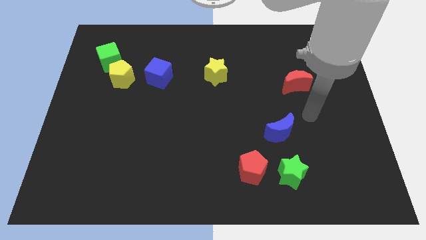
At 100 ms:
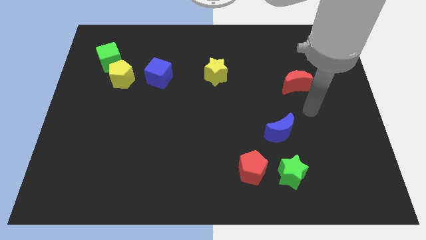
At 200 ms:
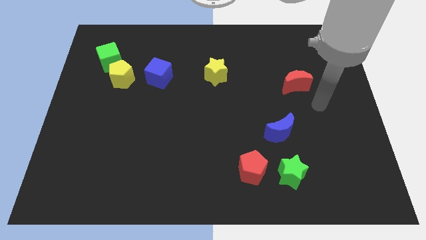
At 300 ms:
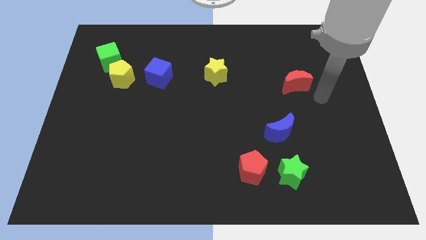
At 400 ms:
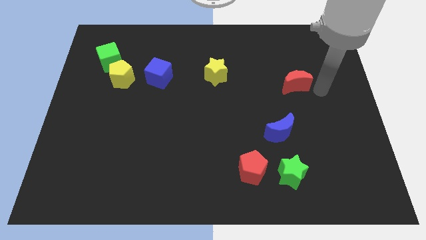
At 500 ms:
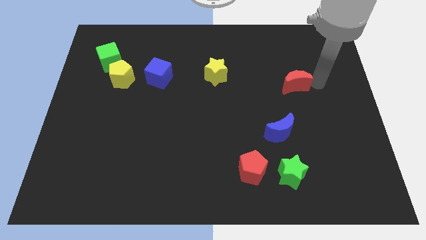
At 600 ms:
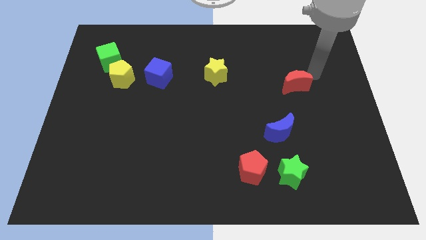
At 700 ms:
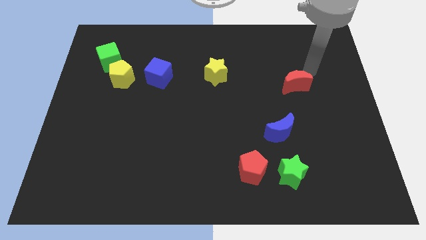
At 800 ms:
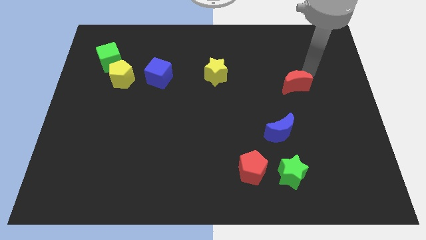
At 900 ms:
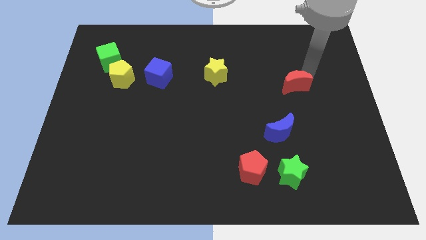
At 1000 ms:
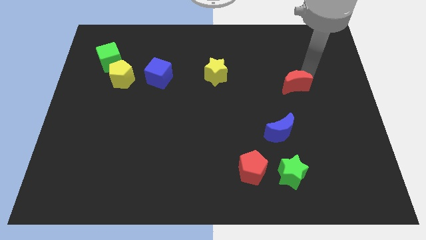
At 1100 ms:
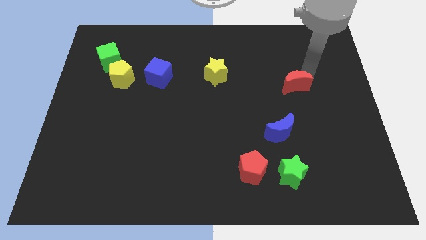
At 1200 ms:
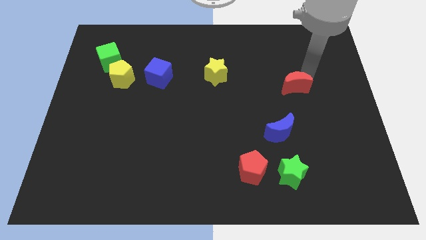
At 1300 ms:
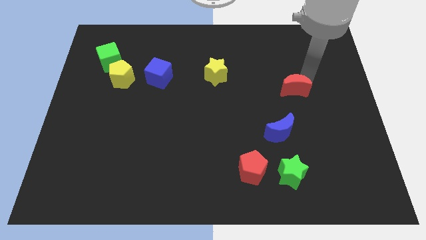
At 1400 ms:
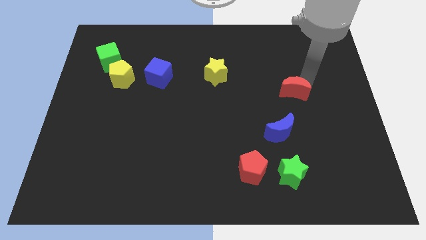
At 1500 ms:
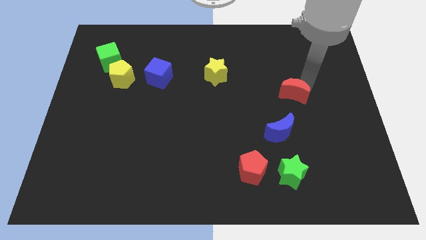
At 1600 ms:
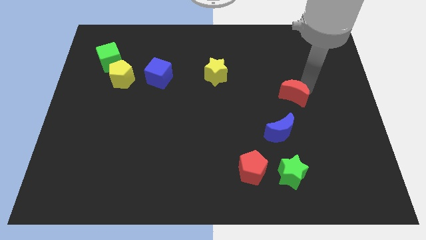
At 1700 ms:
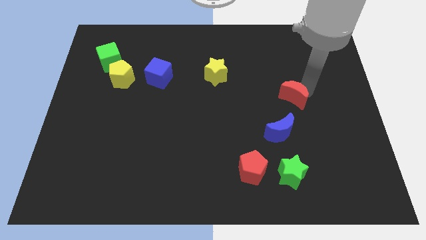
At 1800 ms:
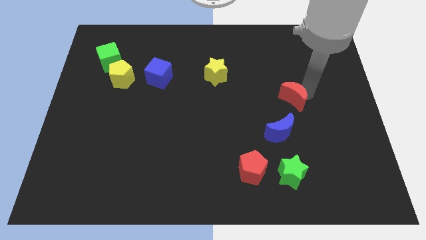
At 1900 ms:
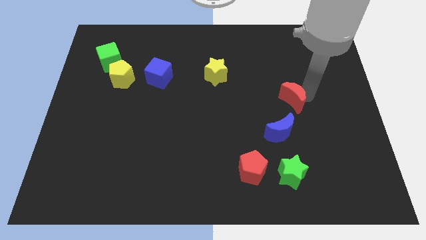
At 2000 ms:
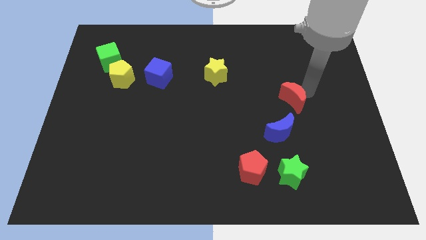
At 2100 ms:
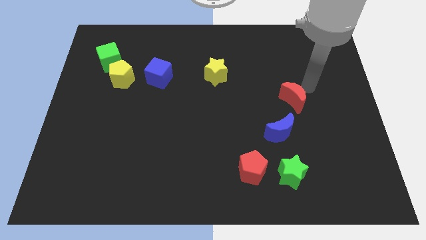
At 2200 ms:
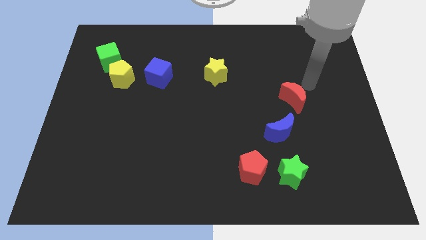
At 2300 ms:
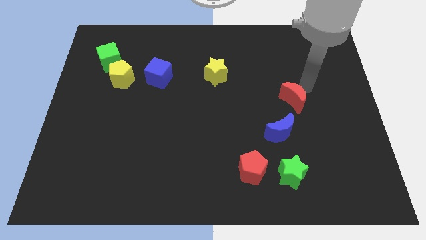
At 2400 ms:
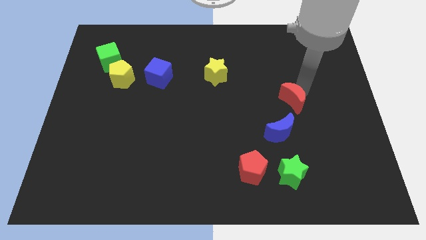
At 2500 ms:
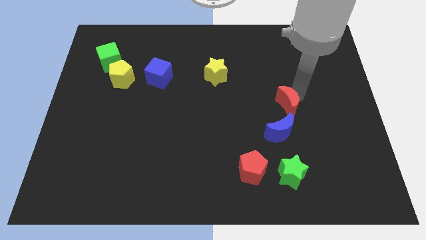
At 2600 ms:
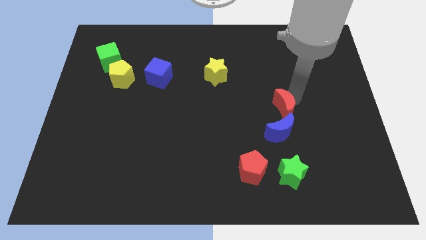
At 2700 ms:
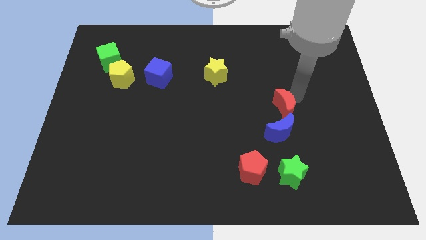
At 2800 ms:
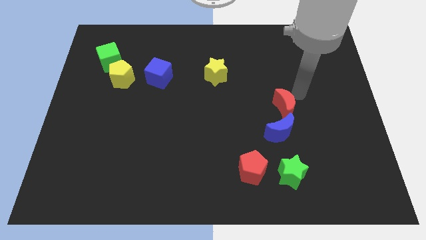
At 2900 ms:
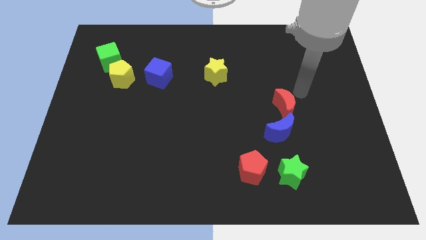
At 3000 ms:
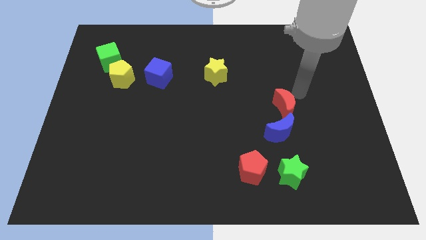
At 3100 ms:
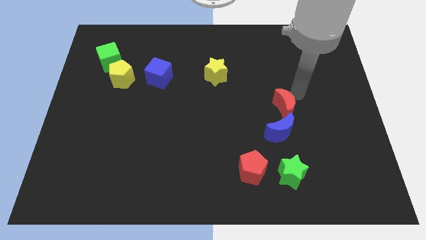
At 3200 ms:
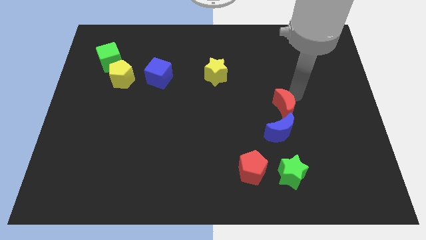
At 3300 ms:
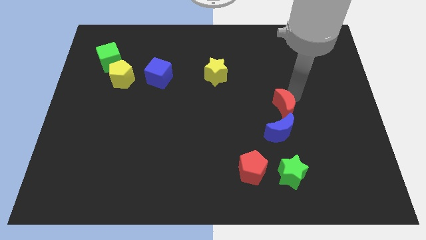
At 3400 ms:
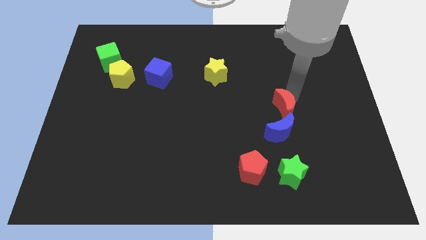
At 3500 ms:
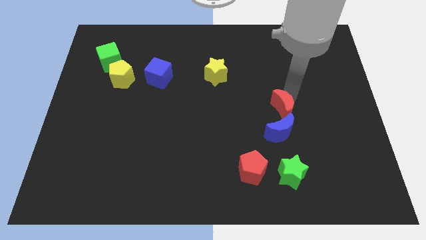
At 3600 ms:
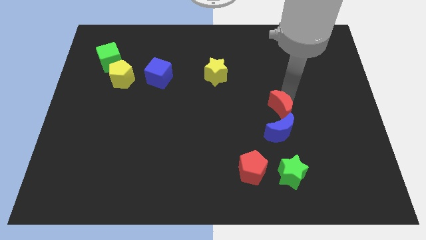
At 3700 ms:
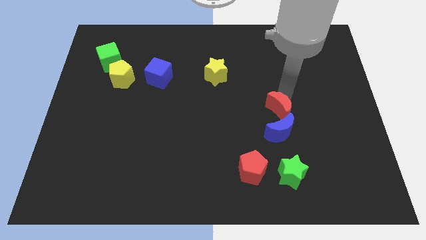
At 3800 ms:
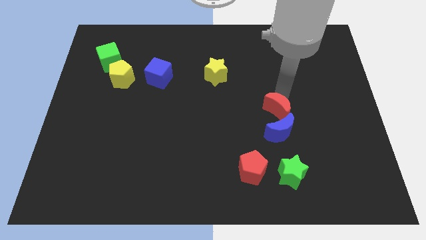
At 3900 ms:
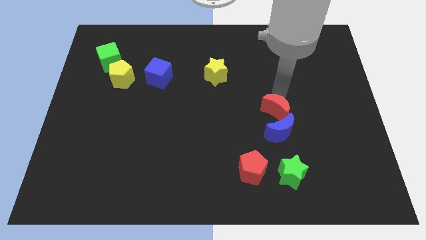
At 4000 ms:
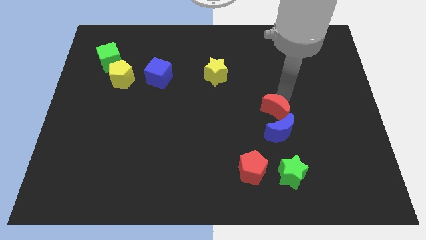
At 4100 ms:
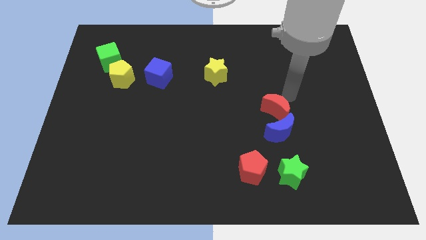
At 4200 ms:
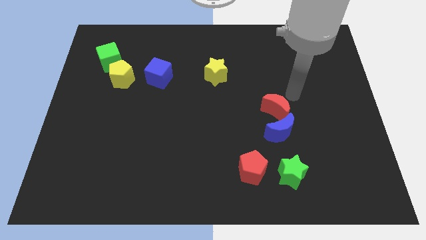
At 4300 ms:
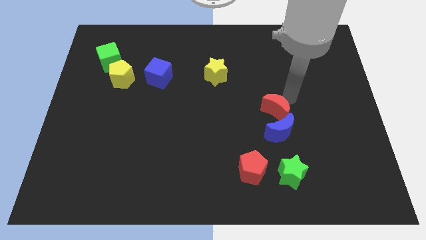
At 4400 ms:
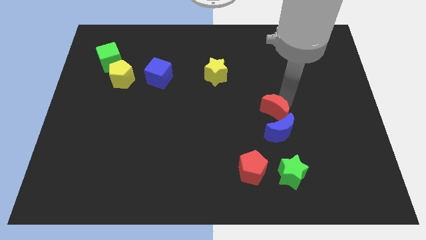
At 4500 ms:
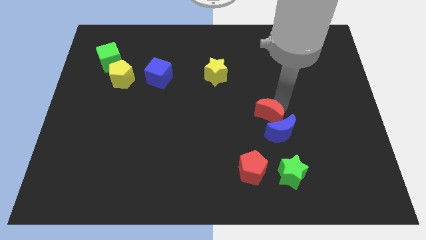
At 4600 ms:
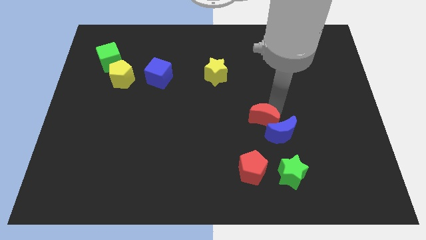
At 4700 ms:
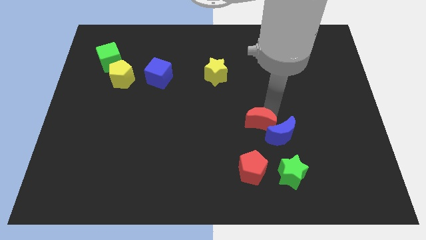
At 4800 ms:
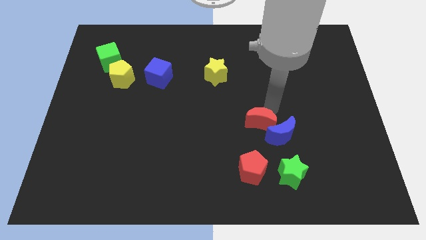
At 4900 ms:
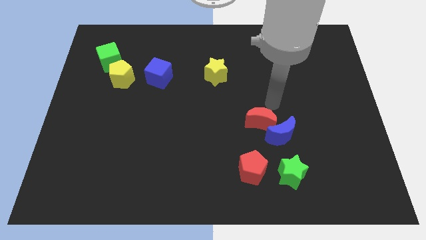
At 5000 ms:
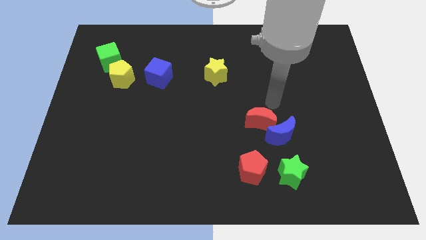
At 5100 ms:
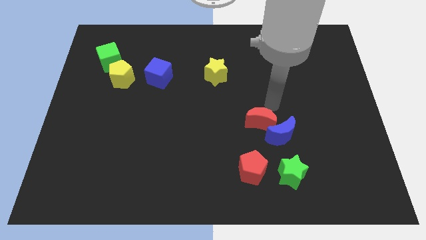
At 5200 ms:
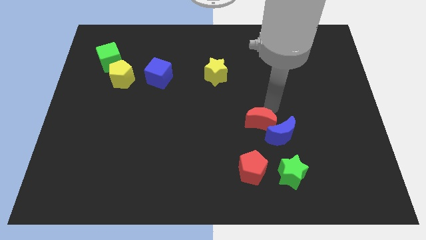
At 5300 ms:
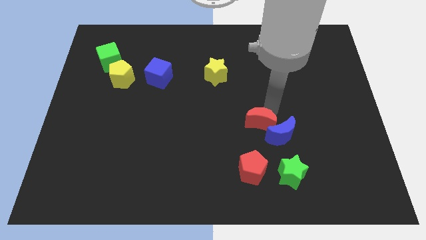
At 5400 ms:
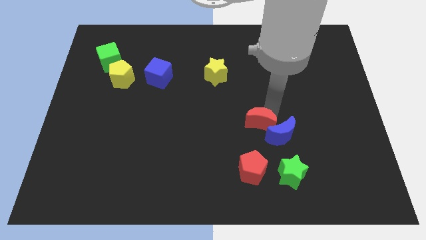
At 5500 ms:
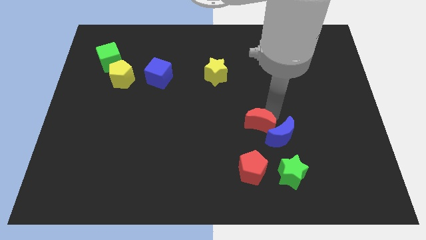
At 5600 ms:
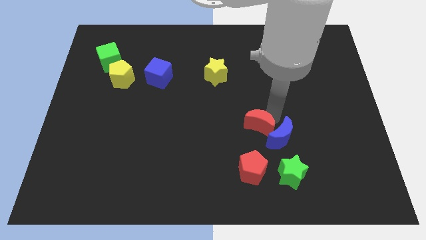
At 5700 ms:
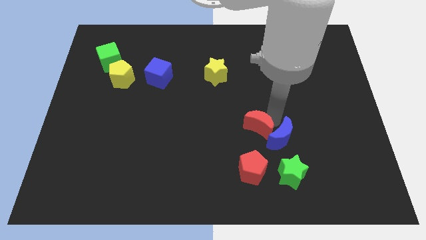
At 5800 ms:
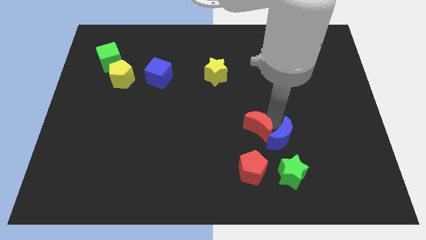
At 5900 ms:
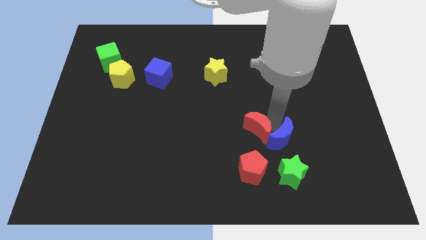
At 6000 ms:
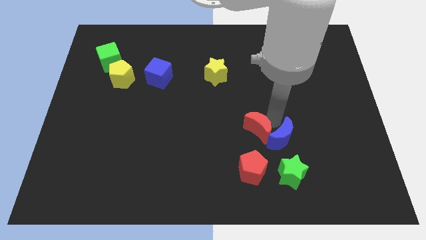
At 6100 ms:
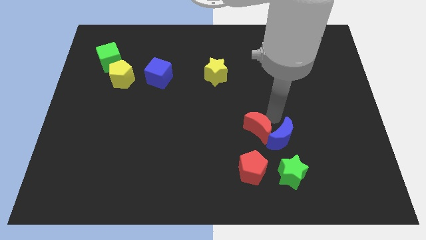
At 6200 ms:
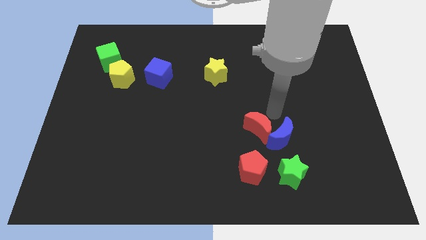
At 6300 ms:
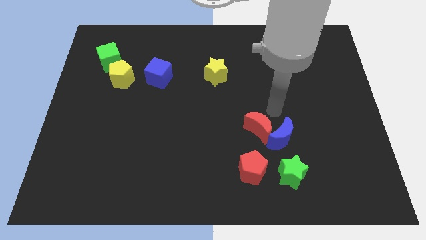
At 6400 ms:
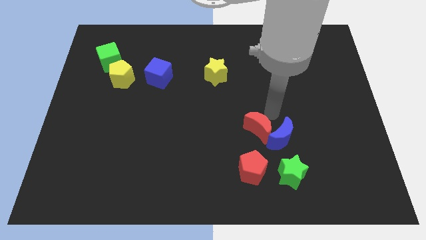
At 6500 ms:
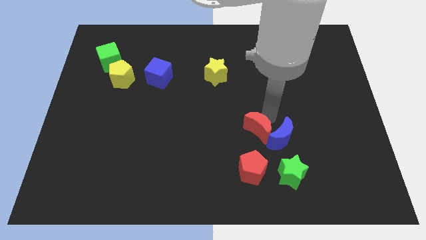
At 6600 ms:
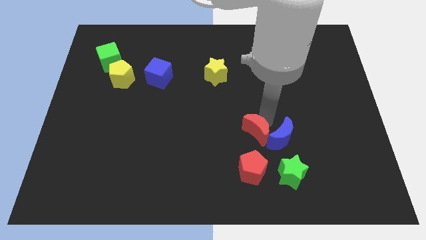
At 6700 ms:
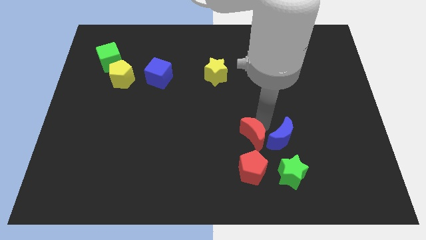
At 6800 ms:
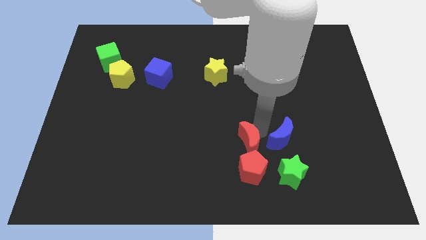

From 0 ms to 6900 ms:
push the red moon to the top left of the red pentagon
